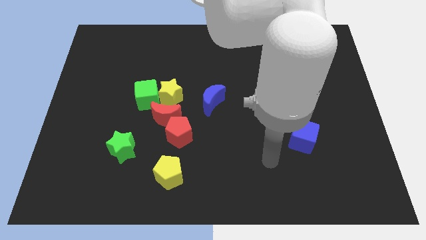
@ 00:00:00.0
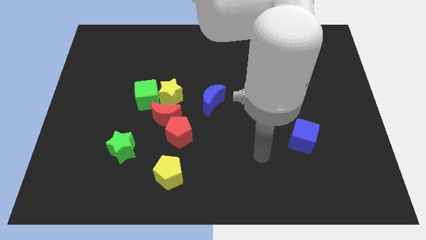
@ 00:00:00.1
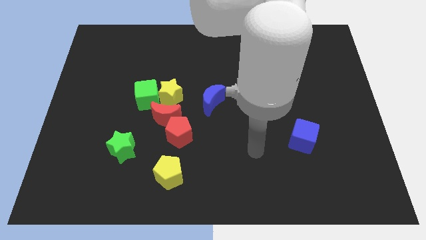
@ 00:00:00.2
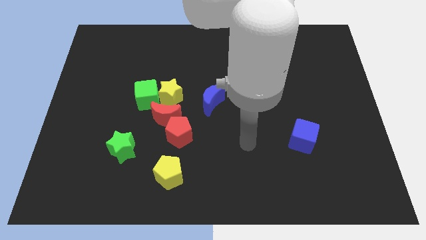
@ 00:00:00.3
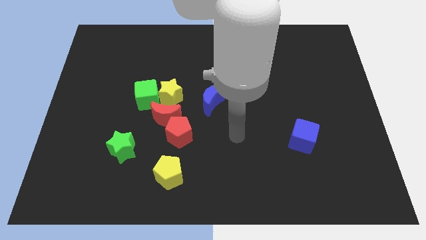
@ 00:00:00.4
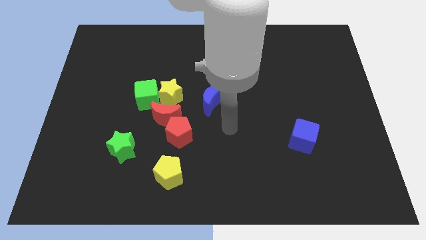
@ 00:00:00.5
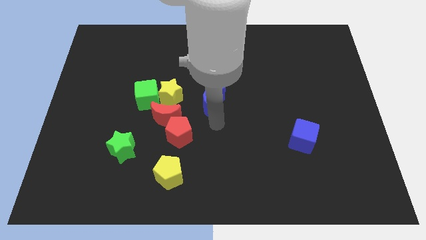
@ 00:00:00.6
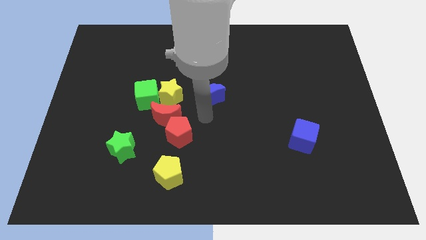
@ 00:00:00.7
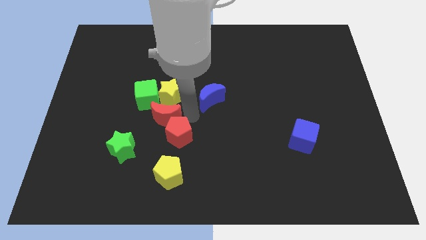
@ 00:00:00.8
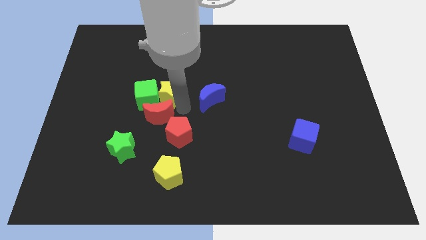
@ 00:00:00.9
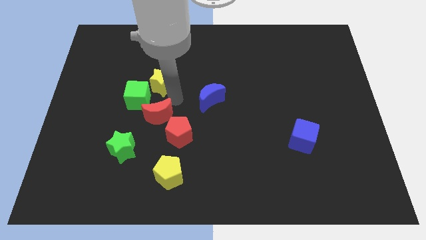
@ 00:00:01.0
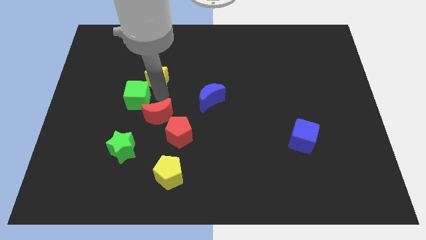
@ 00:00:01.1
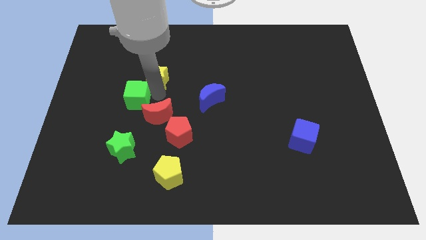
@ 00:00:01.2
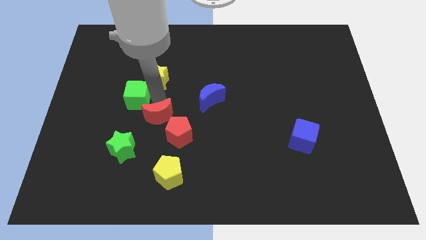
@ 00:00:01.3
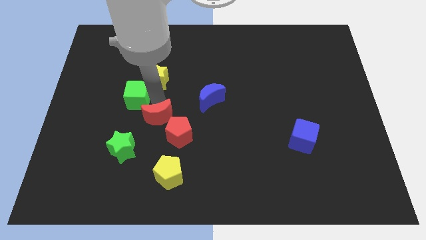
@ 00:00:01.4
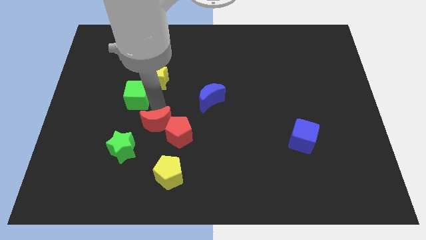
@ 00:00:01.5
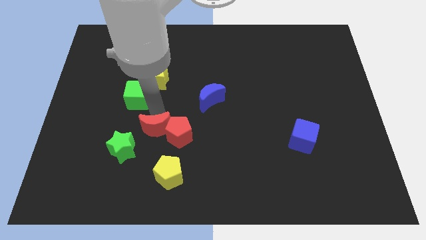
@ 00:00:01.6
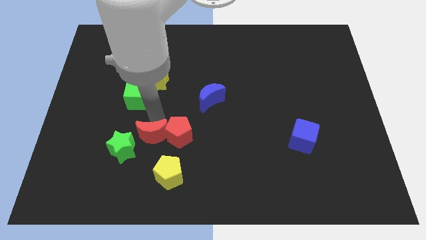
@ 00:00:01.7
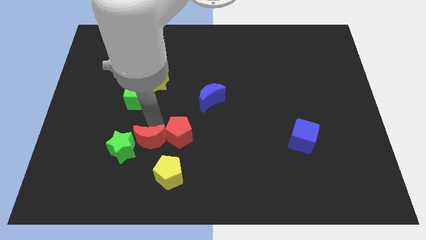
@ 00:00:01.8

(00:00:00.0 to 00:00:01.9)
separate the red moon from the red pentagon, yellow star, and green cube

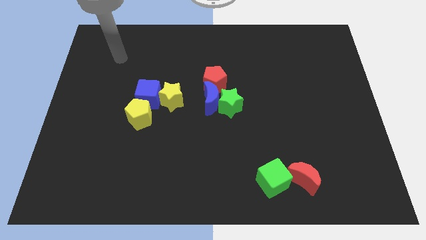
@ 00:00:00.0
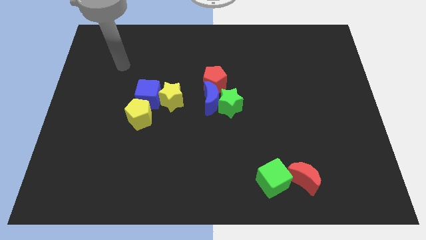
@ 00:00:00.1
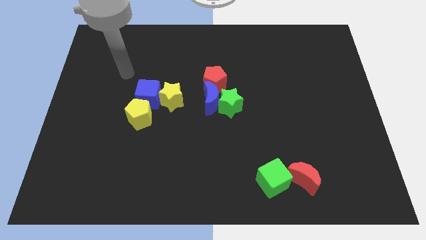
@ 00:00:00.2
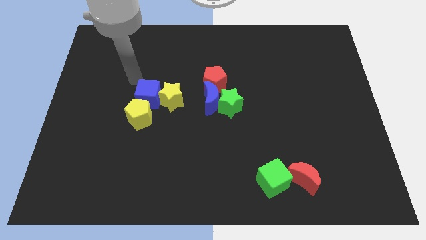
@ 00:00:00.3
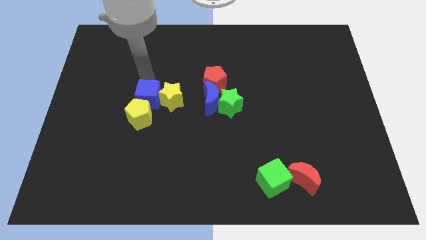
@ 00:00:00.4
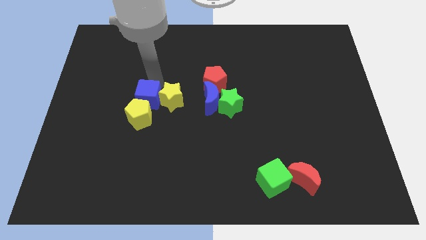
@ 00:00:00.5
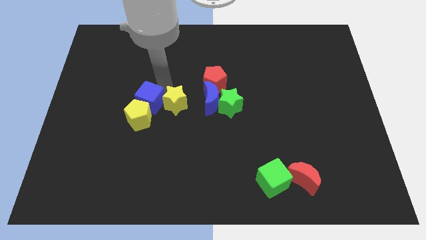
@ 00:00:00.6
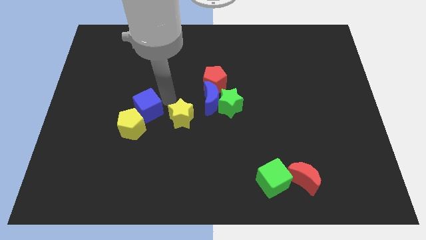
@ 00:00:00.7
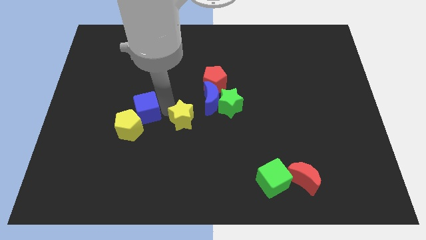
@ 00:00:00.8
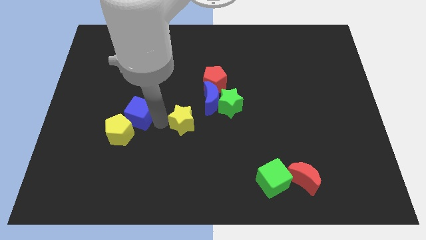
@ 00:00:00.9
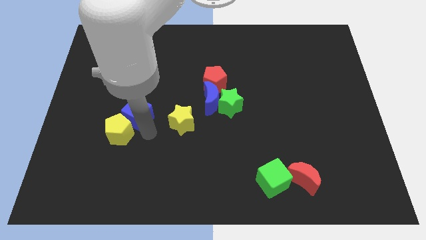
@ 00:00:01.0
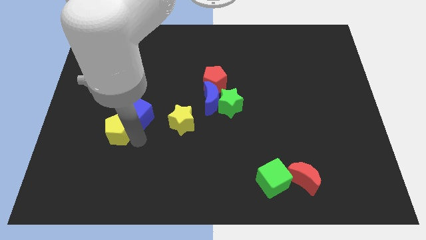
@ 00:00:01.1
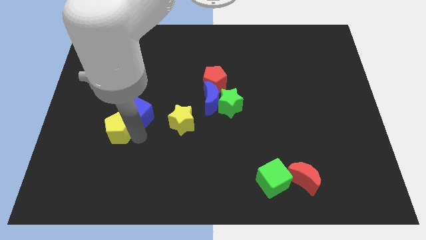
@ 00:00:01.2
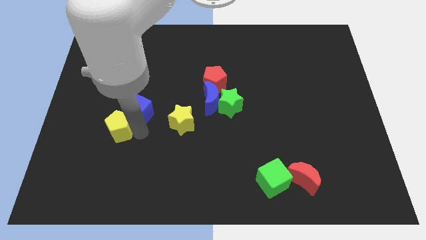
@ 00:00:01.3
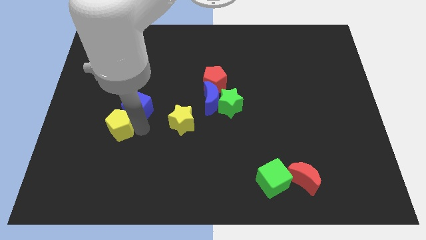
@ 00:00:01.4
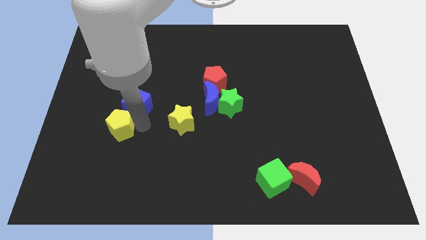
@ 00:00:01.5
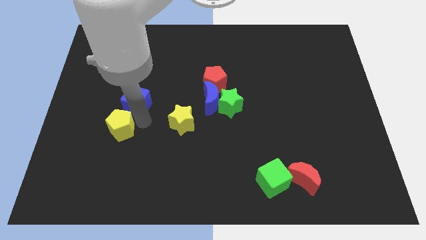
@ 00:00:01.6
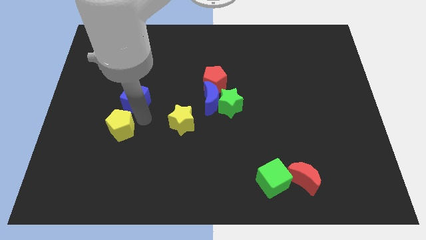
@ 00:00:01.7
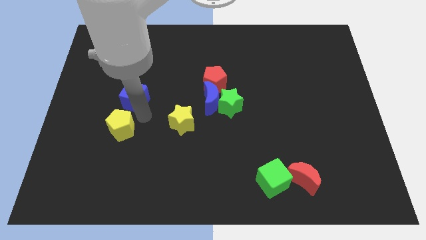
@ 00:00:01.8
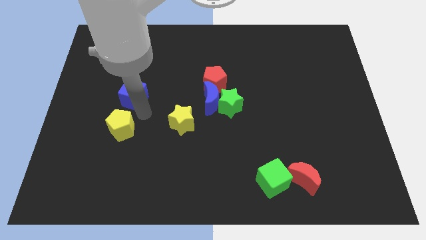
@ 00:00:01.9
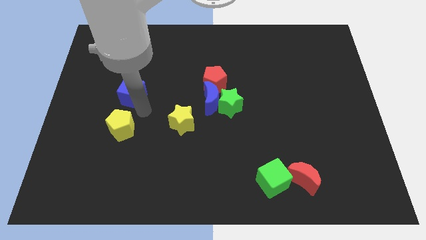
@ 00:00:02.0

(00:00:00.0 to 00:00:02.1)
move the blue cube away from the yellow star and yellow pentagon

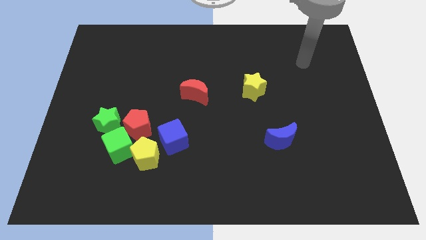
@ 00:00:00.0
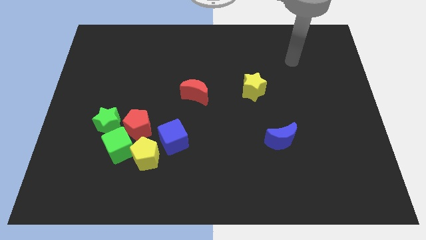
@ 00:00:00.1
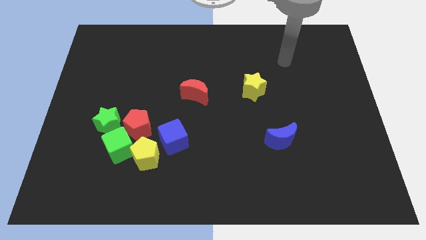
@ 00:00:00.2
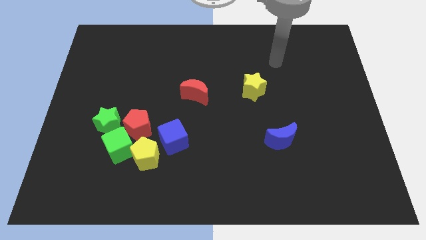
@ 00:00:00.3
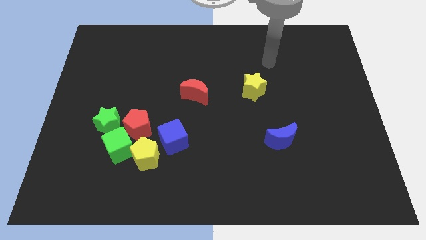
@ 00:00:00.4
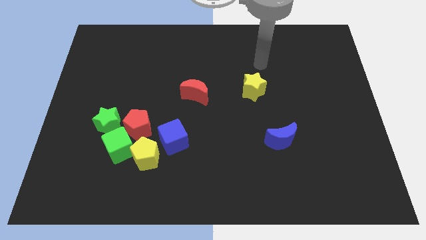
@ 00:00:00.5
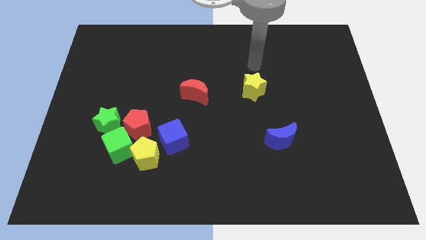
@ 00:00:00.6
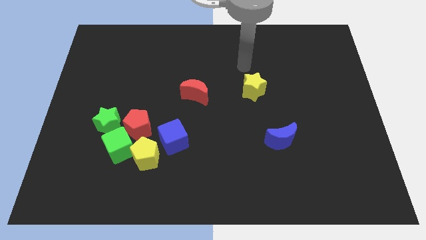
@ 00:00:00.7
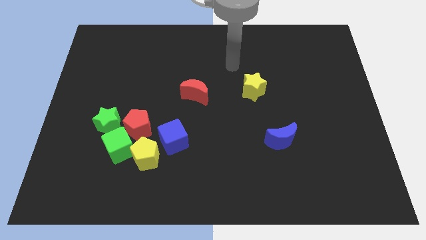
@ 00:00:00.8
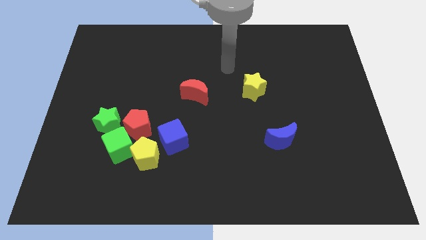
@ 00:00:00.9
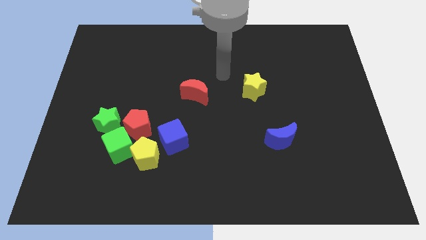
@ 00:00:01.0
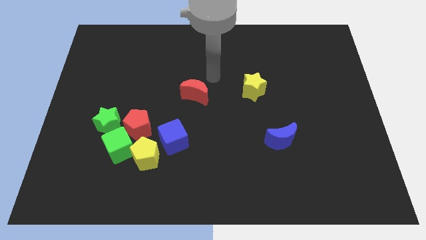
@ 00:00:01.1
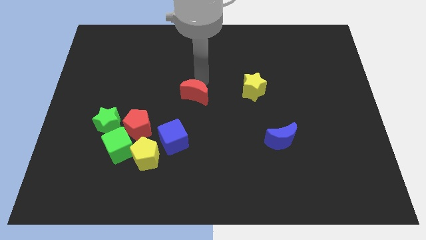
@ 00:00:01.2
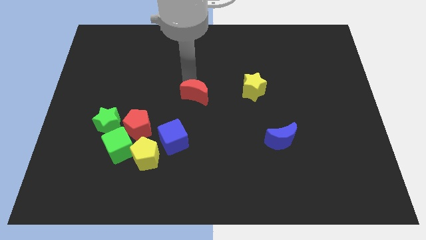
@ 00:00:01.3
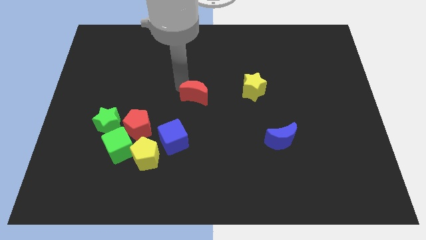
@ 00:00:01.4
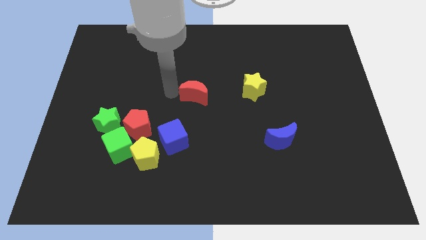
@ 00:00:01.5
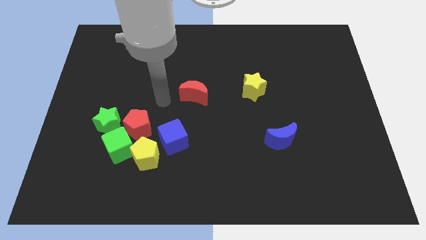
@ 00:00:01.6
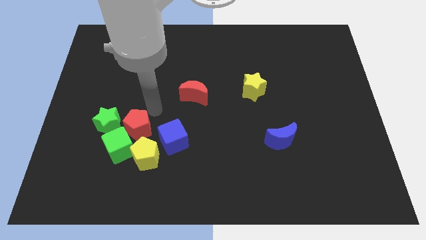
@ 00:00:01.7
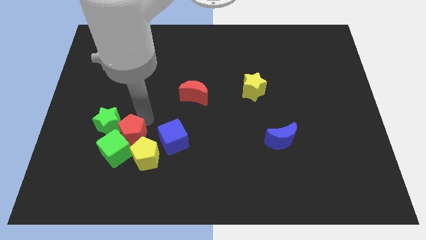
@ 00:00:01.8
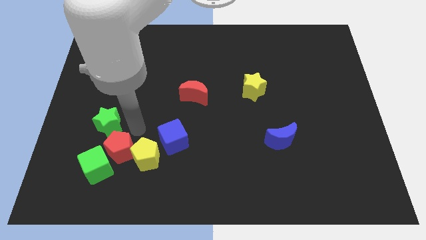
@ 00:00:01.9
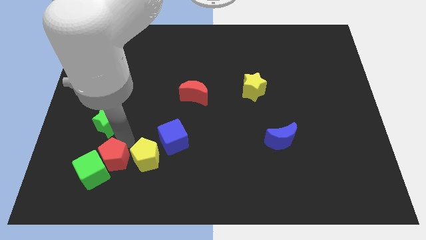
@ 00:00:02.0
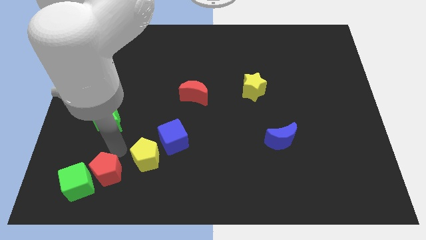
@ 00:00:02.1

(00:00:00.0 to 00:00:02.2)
pull the green cube apart from the group of blocks

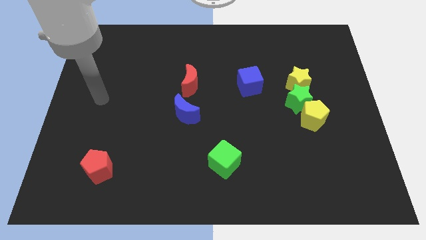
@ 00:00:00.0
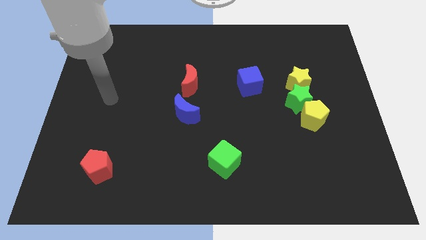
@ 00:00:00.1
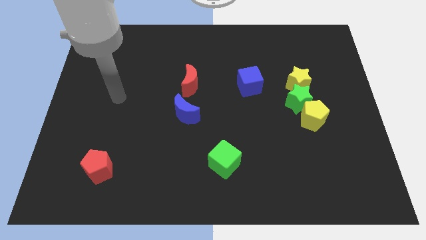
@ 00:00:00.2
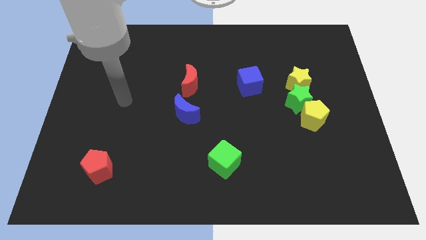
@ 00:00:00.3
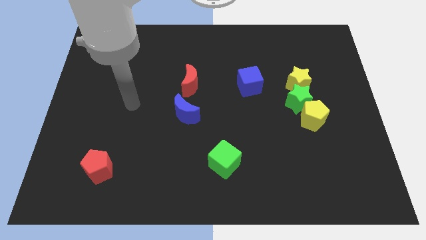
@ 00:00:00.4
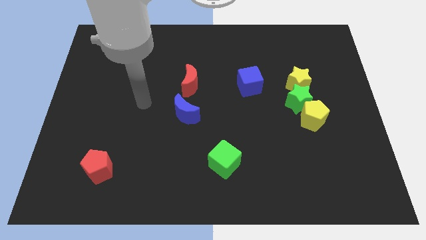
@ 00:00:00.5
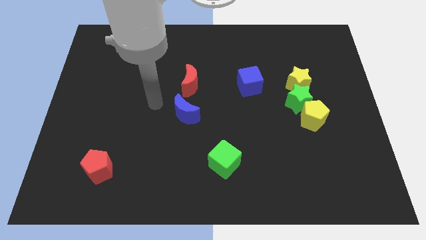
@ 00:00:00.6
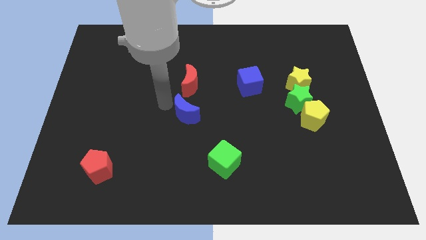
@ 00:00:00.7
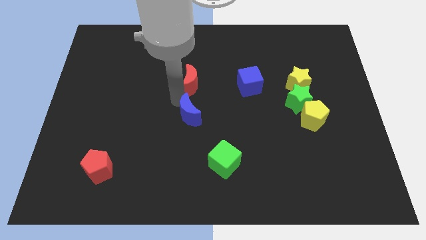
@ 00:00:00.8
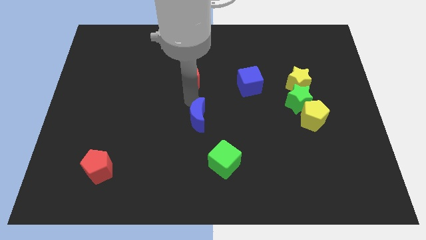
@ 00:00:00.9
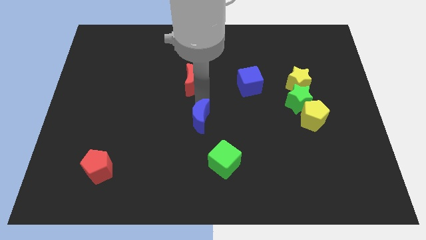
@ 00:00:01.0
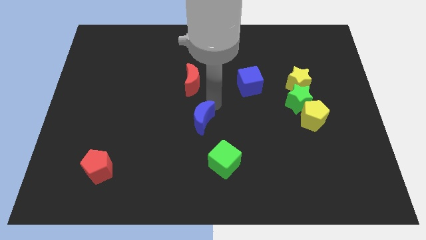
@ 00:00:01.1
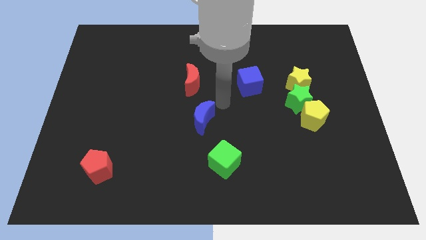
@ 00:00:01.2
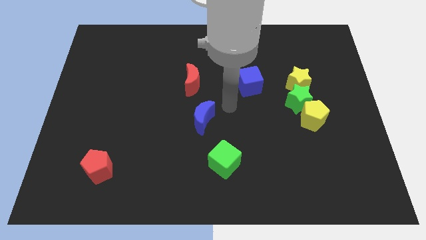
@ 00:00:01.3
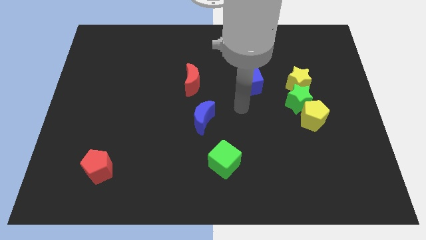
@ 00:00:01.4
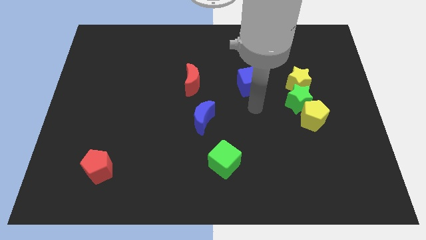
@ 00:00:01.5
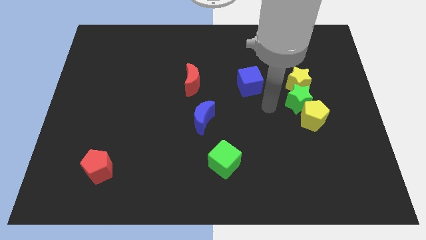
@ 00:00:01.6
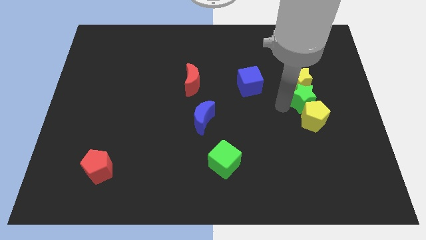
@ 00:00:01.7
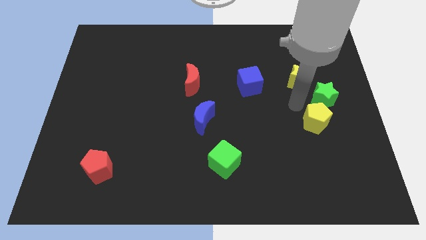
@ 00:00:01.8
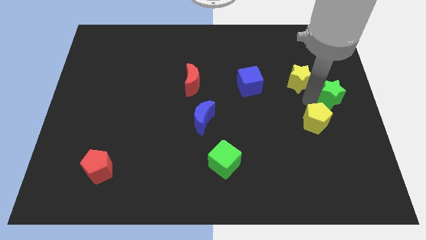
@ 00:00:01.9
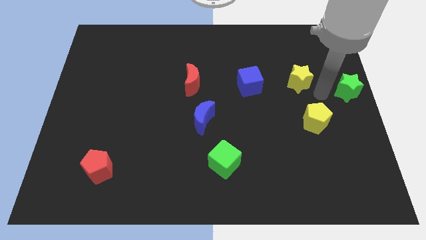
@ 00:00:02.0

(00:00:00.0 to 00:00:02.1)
separate the yellow star from the green star

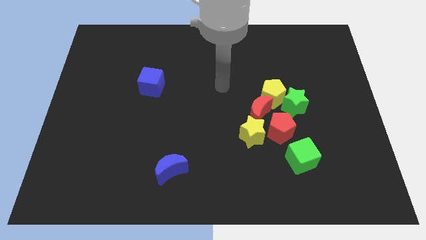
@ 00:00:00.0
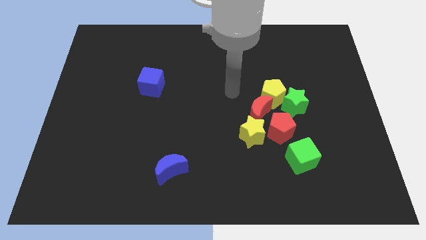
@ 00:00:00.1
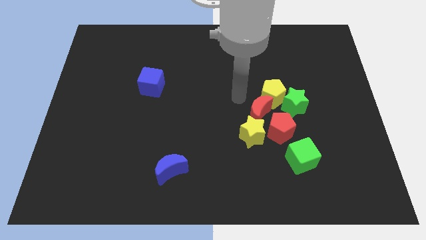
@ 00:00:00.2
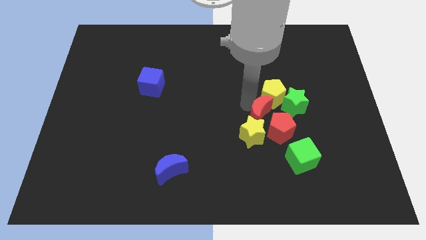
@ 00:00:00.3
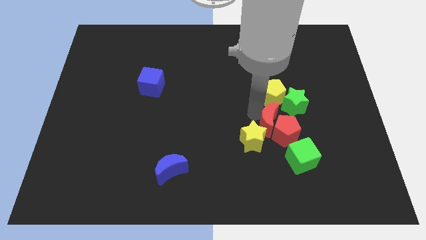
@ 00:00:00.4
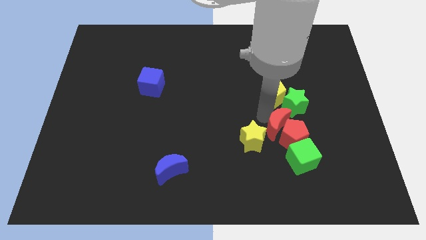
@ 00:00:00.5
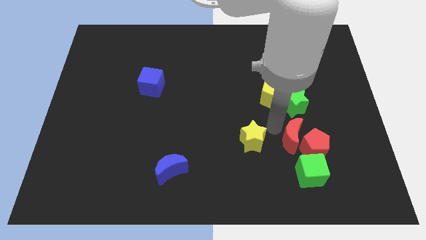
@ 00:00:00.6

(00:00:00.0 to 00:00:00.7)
pull the yellow star apart from the red moon and red pentagon
